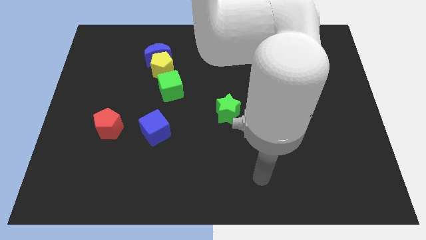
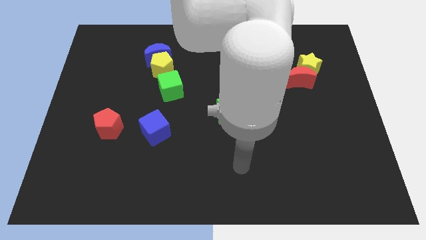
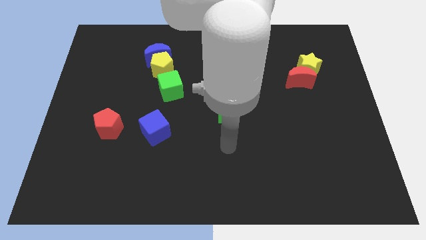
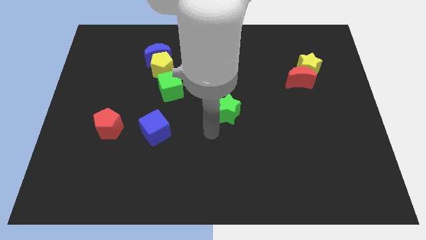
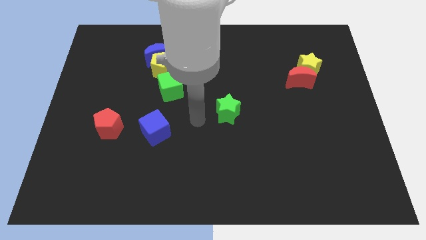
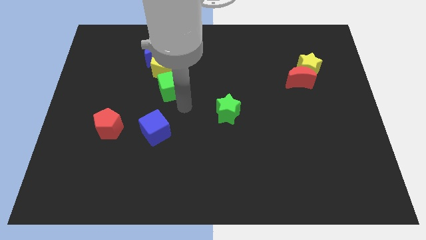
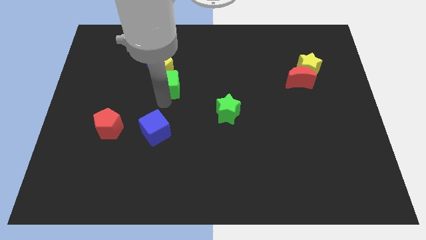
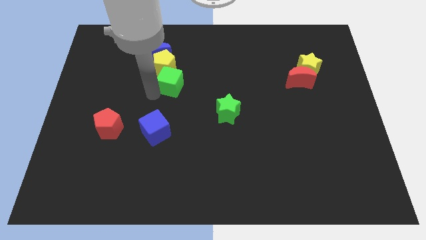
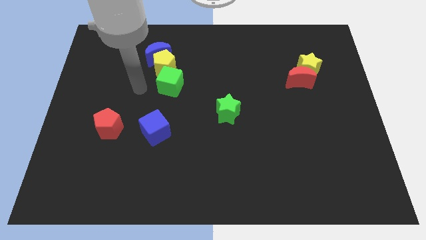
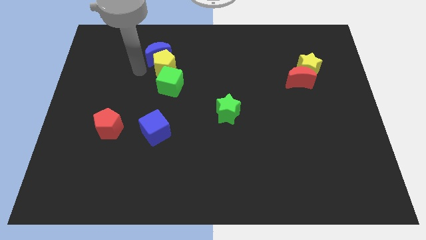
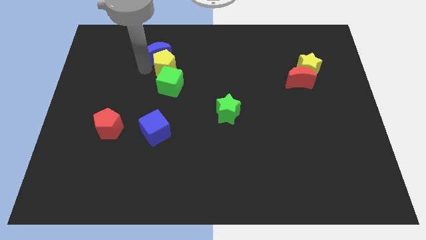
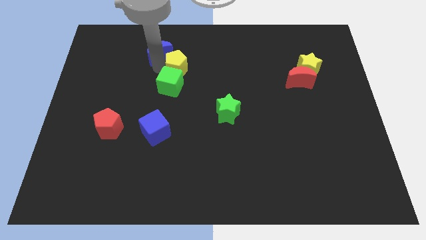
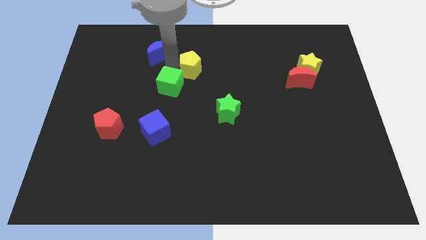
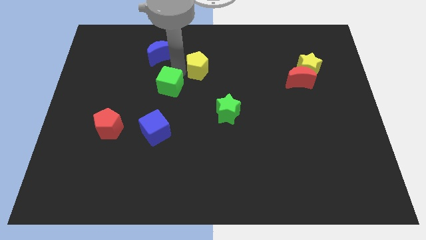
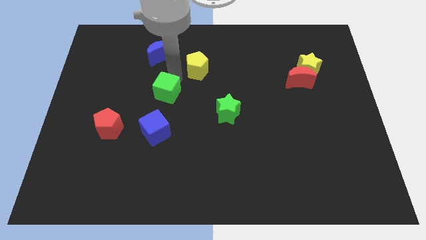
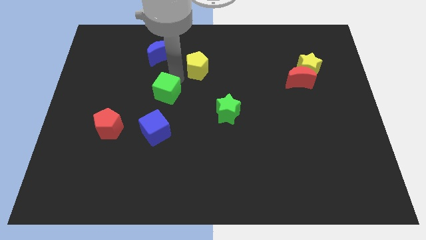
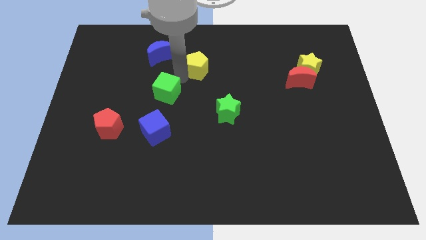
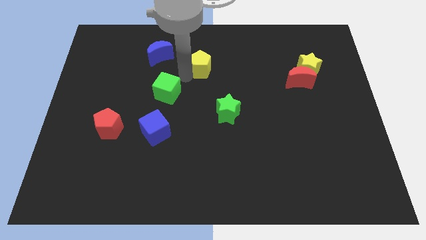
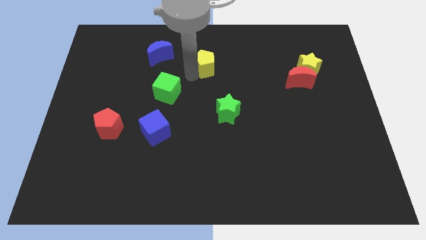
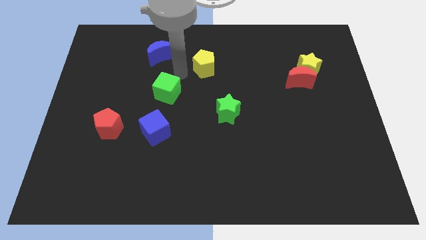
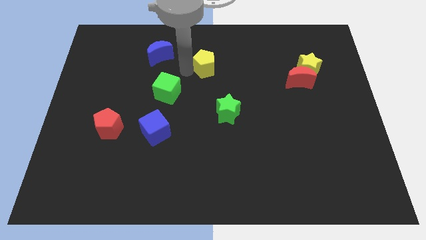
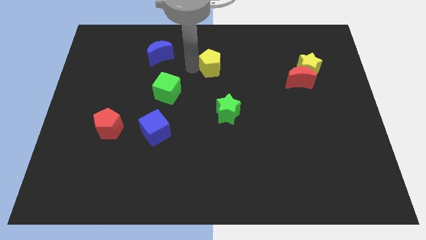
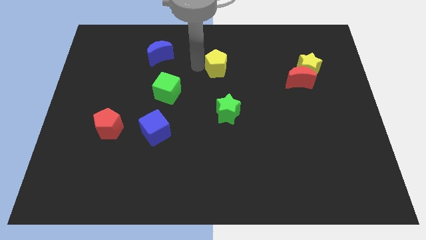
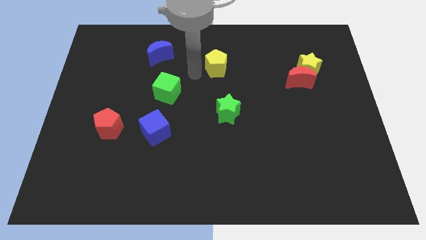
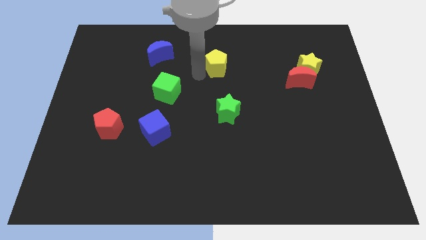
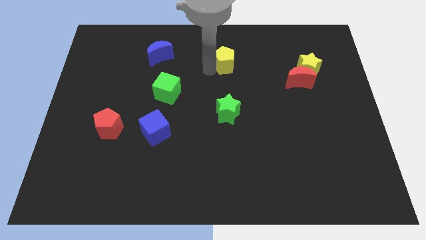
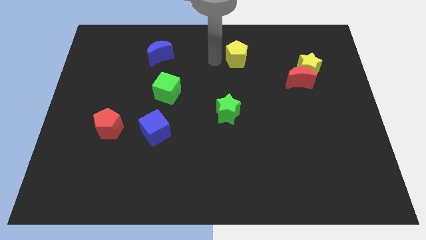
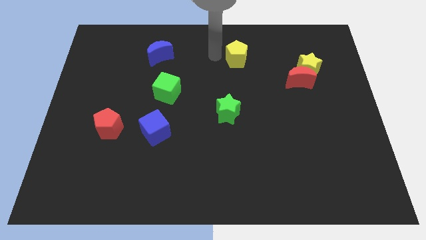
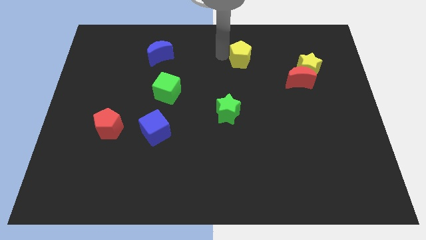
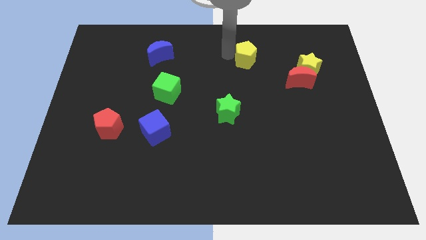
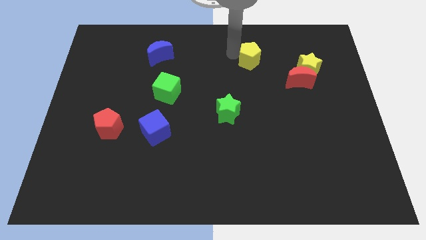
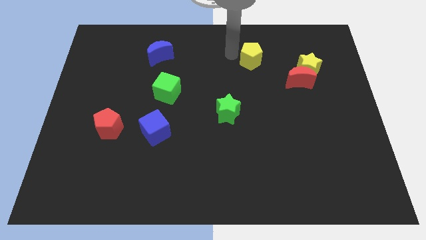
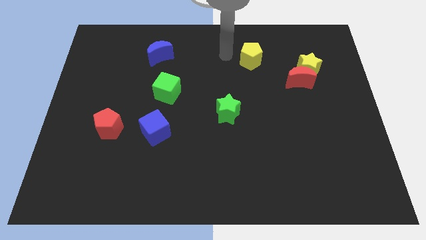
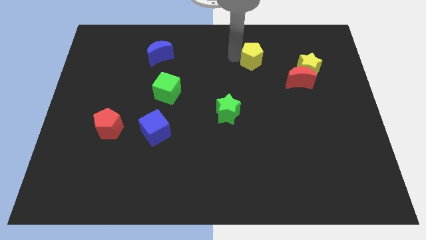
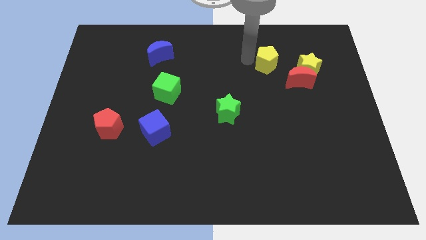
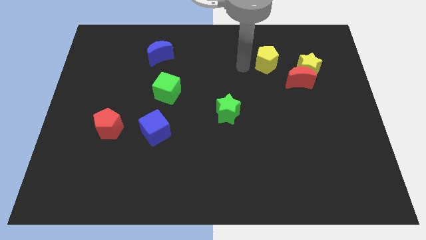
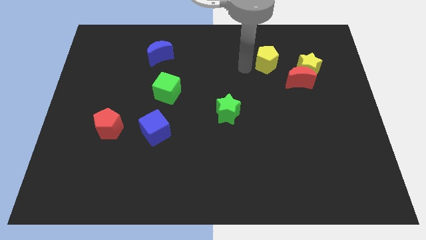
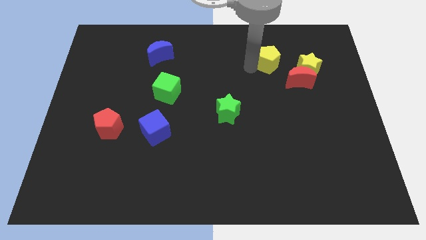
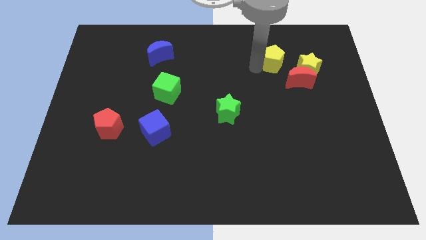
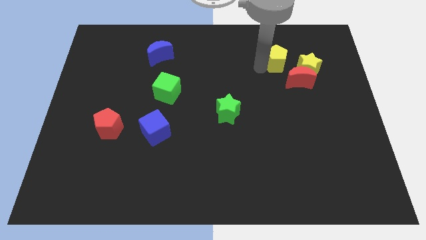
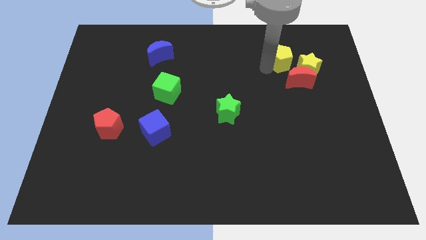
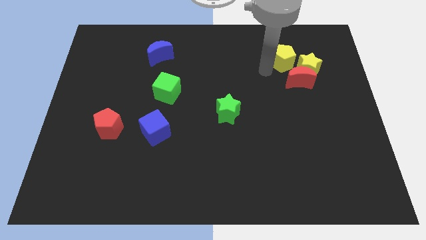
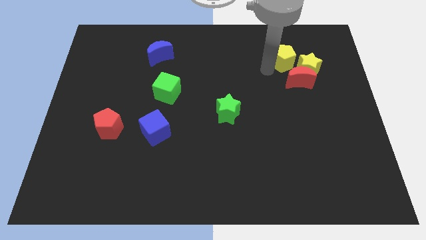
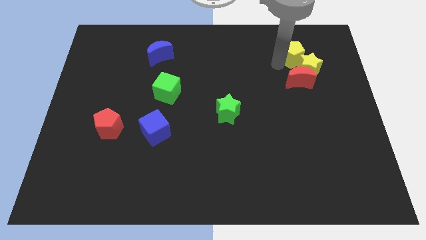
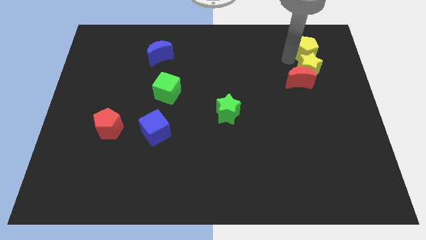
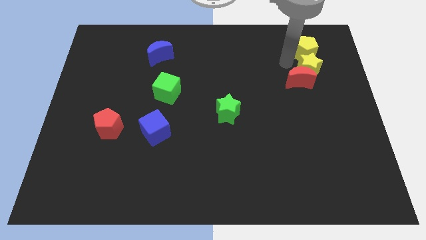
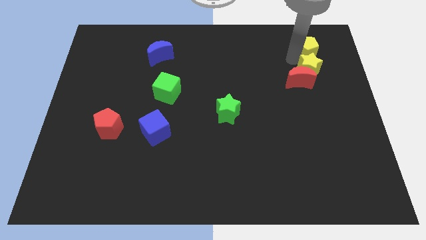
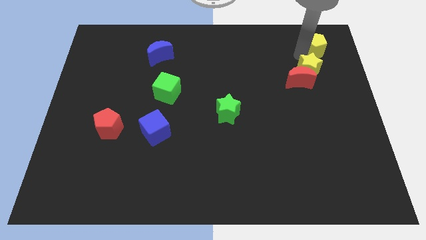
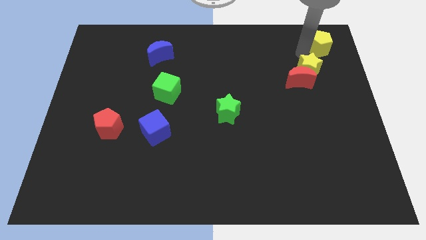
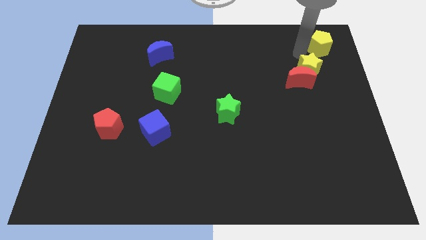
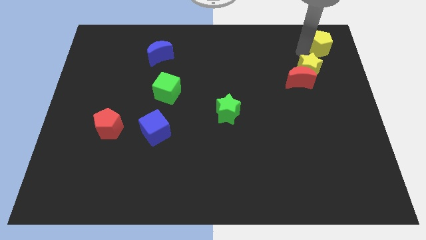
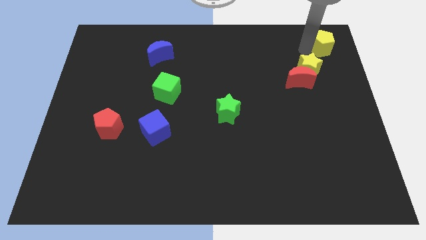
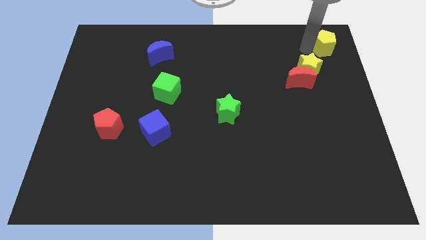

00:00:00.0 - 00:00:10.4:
move the yellow pentagon to the top right
